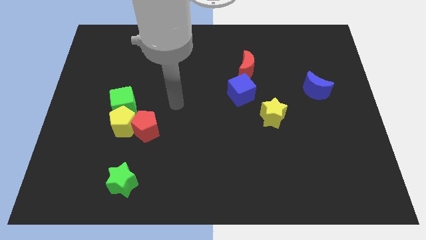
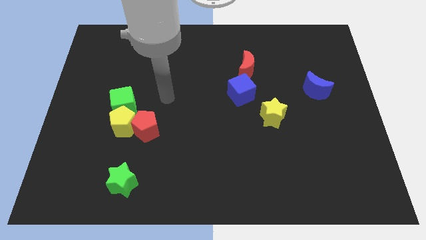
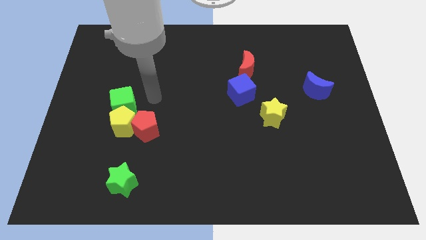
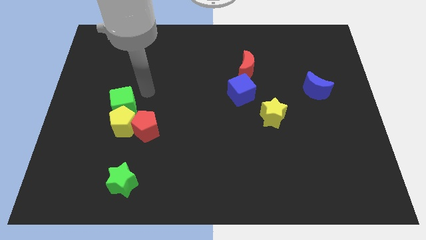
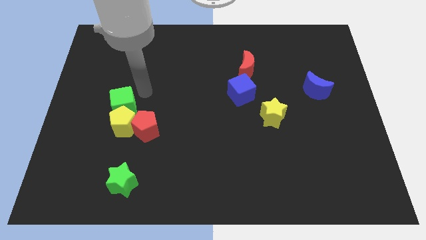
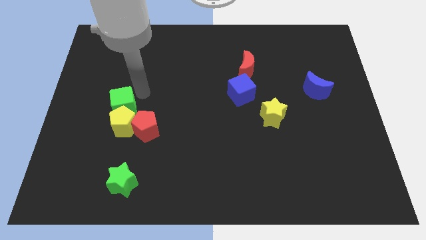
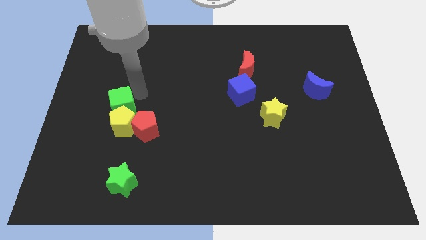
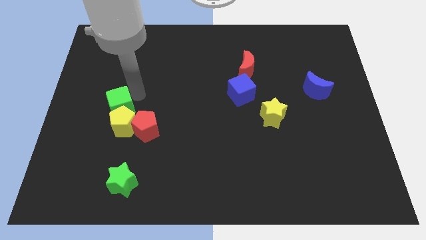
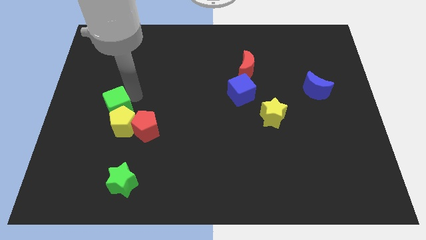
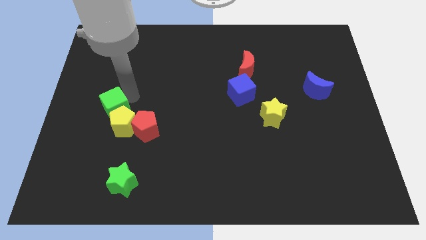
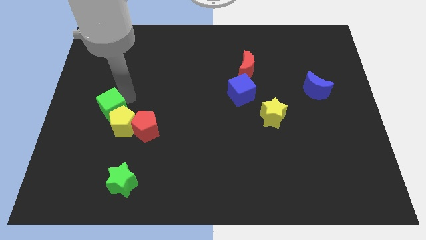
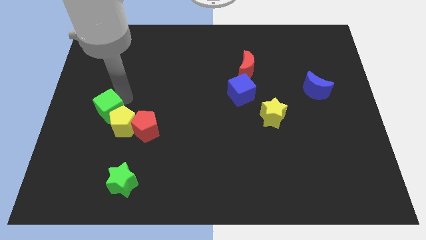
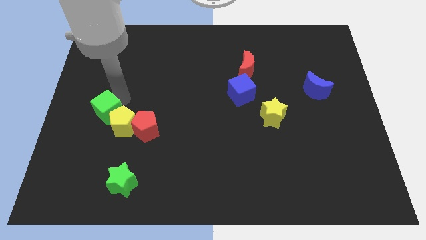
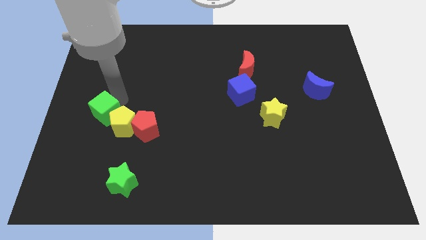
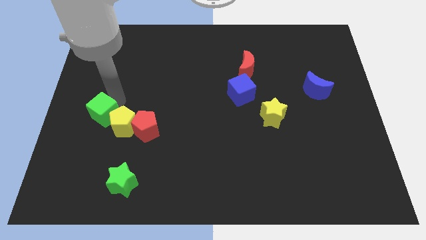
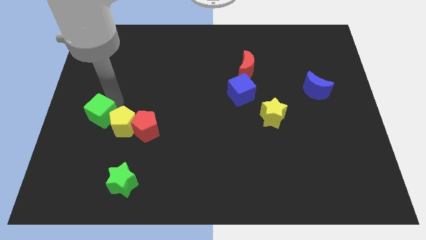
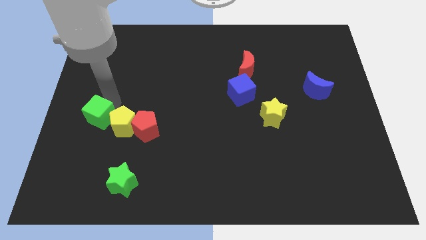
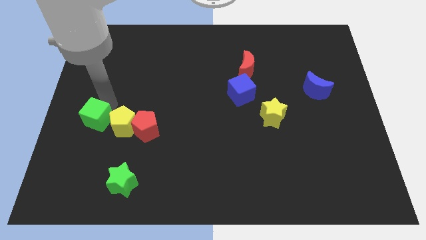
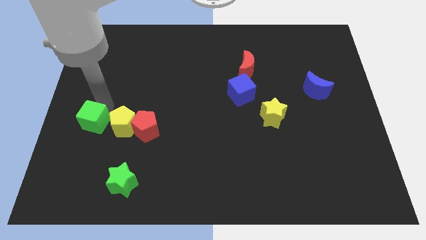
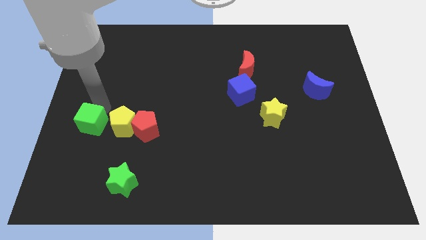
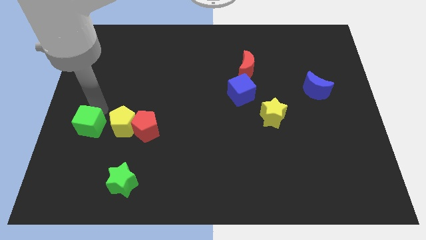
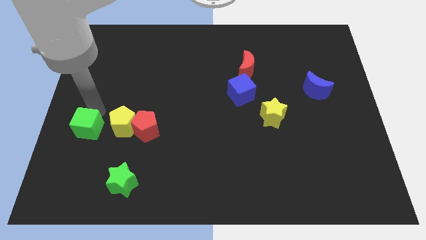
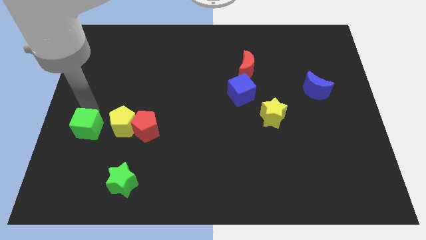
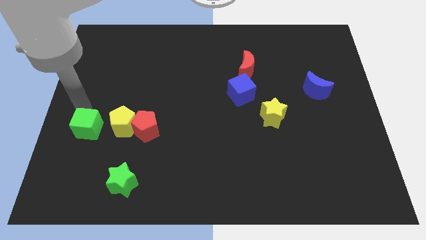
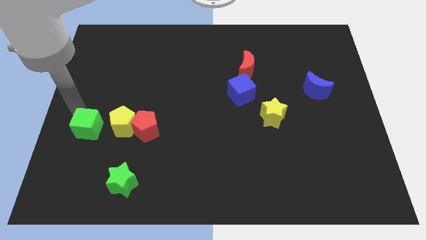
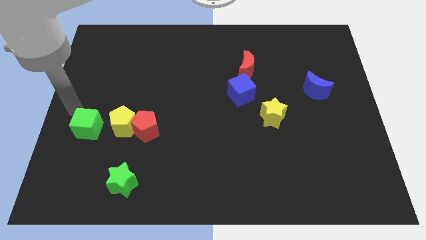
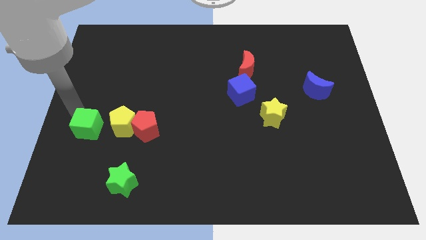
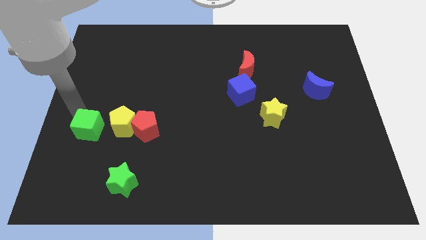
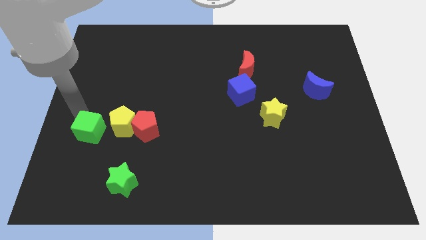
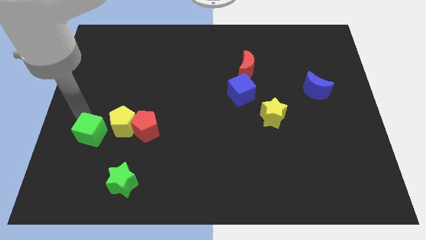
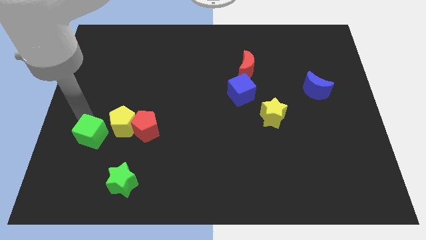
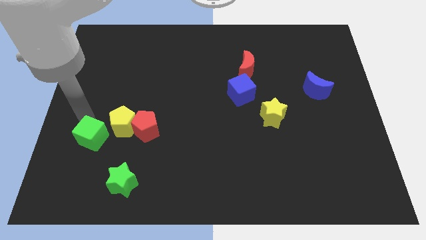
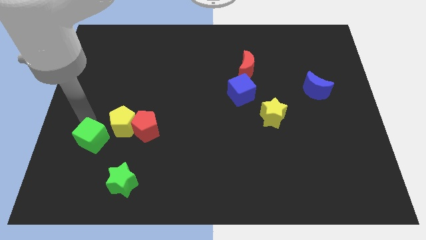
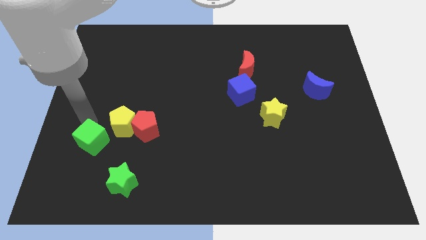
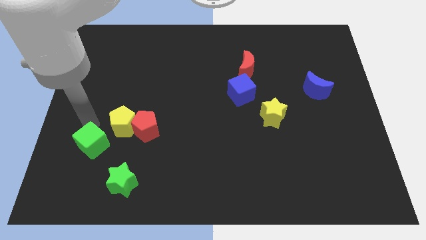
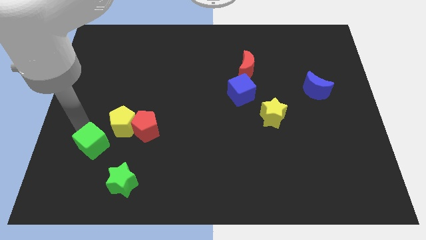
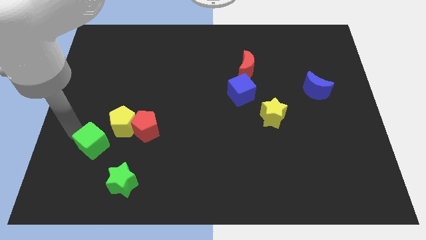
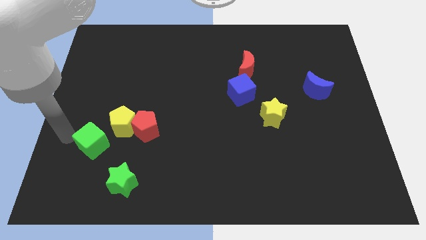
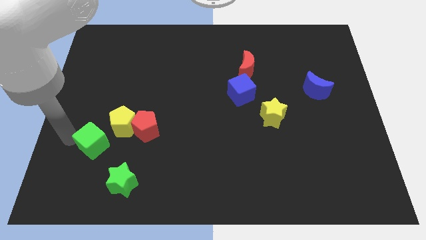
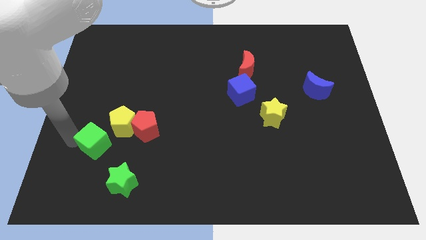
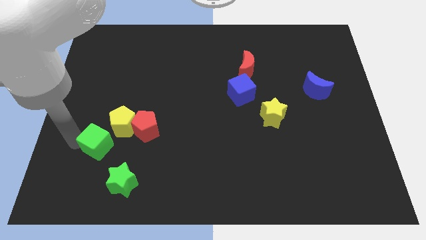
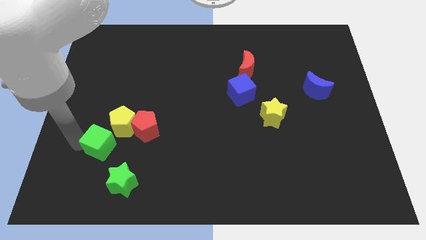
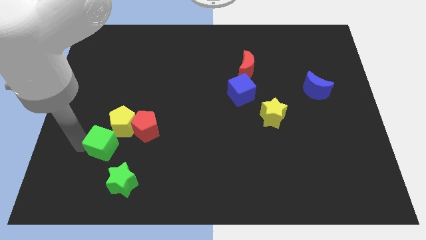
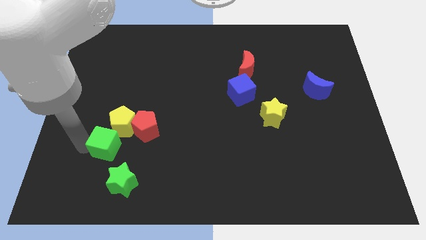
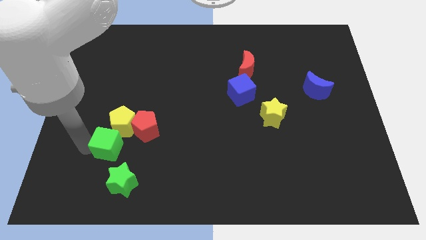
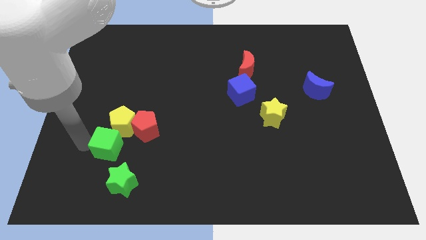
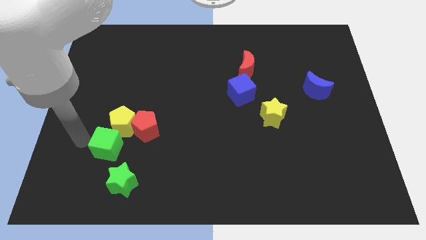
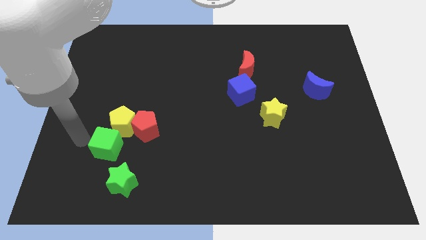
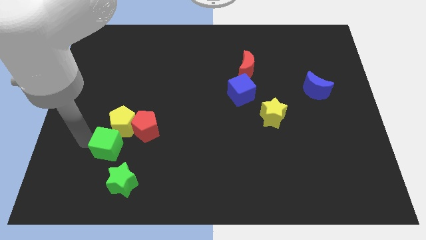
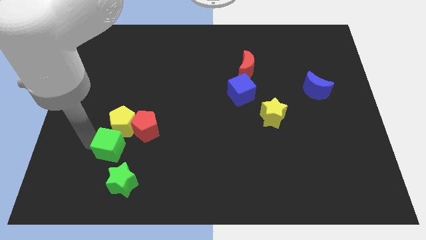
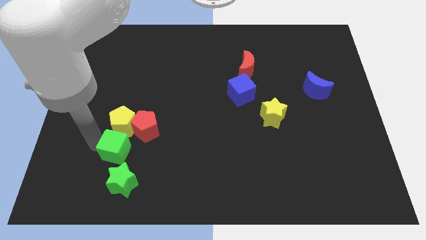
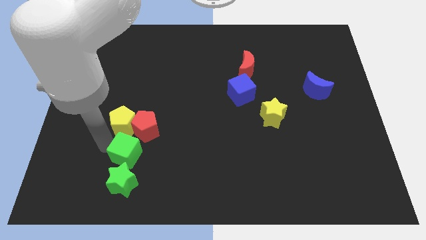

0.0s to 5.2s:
slide the green cube to the bottom of the red pentagon

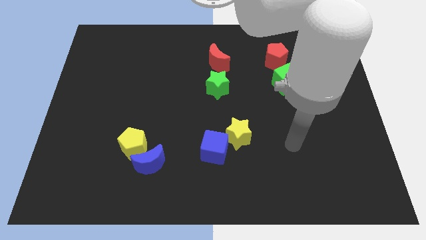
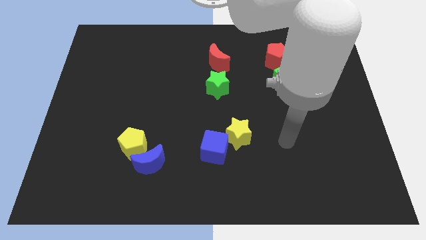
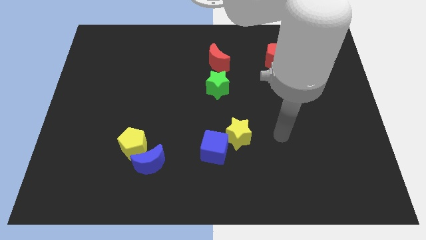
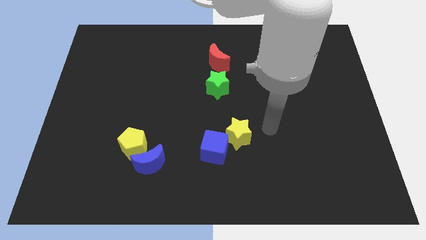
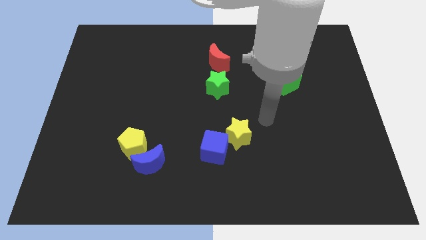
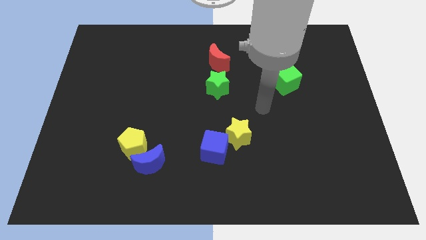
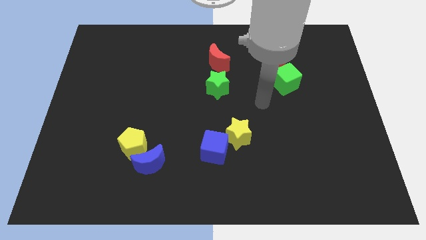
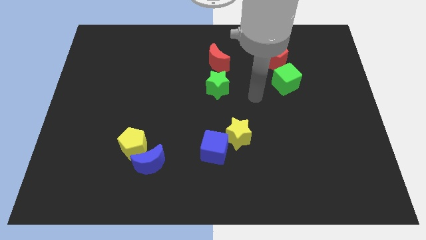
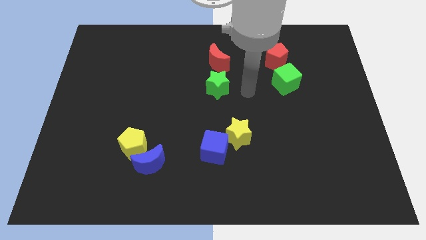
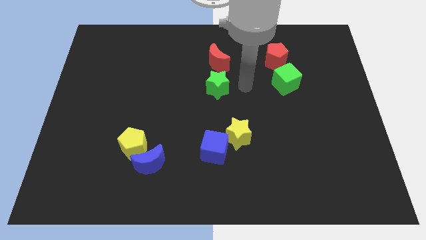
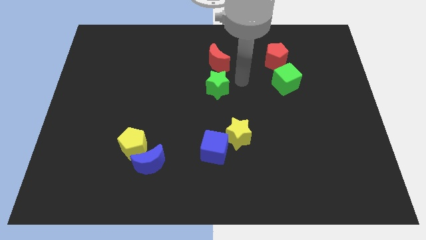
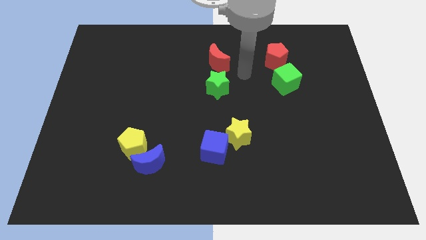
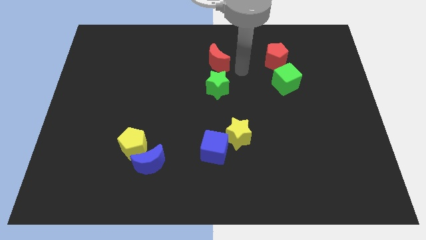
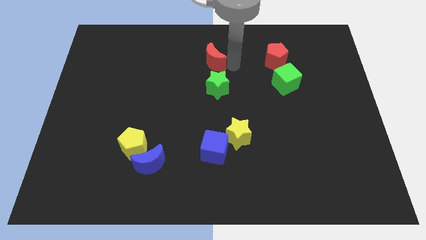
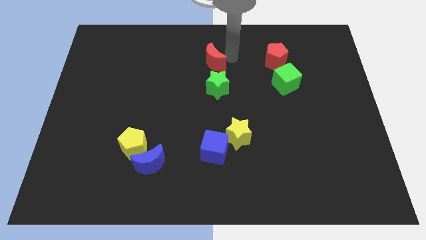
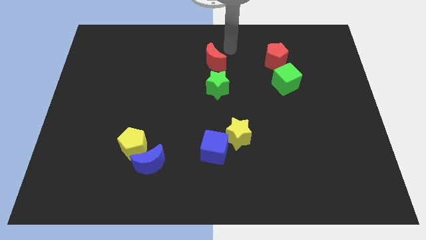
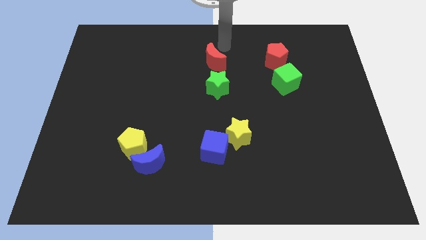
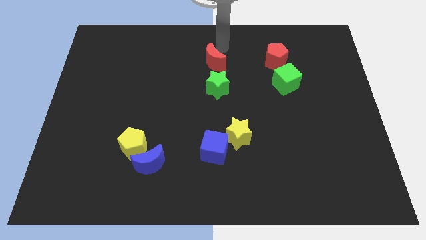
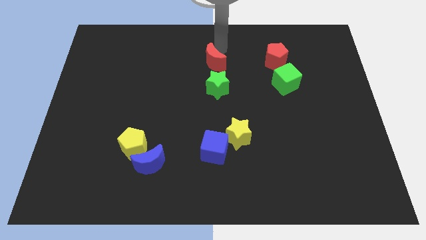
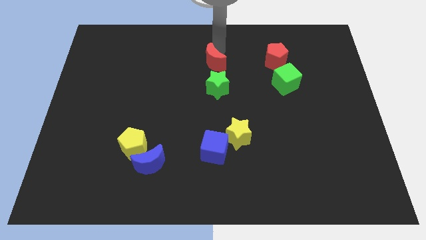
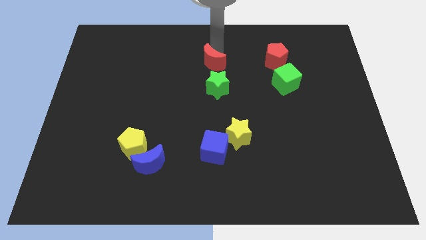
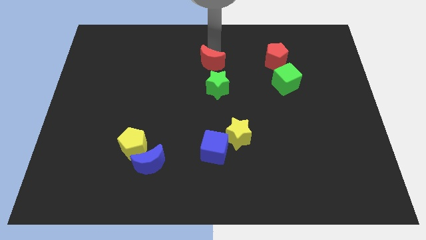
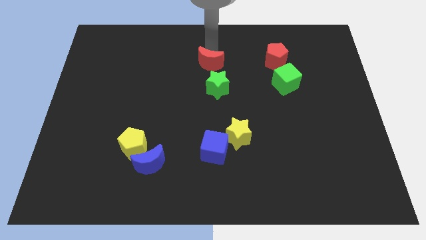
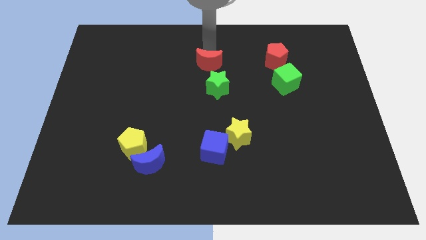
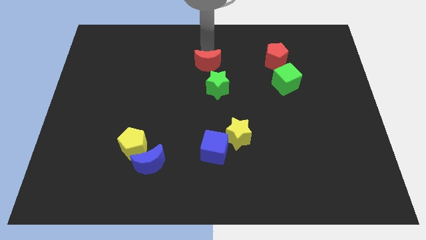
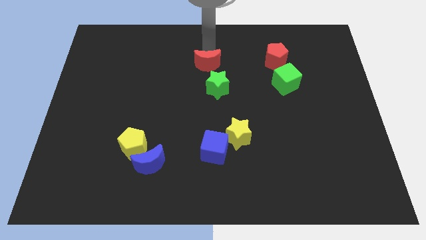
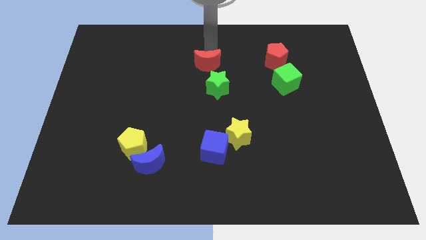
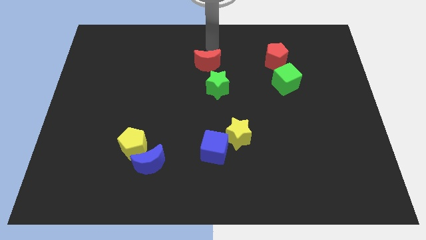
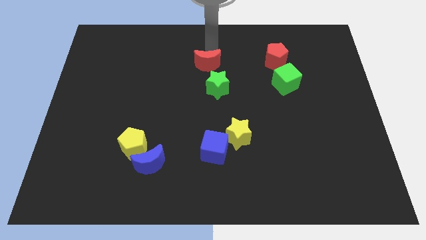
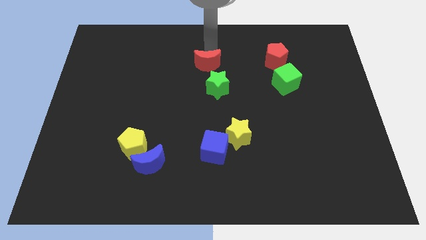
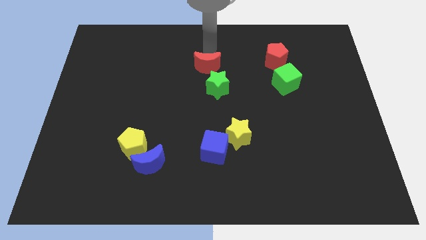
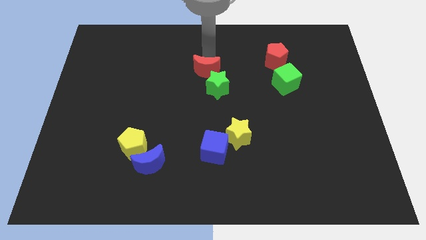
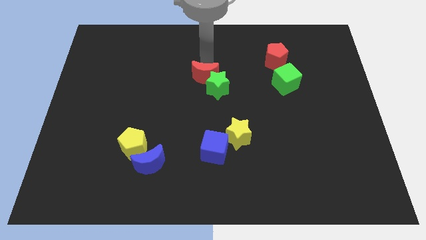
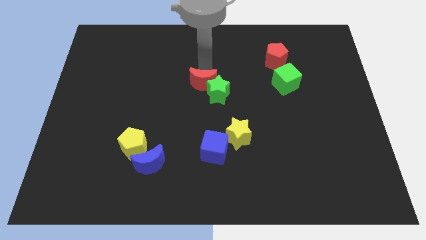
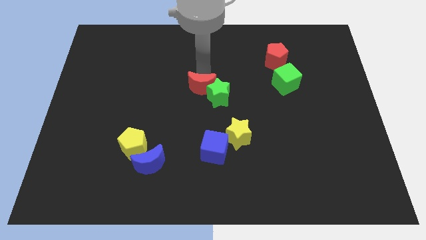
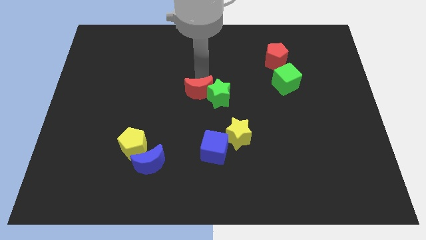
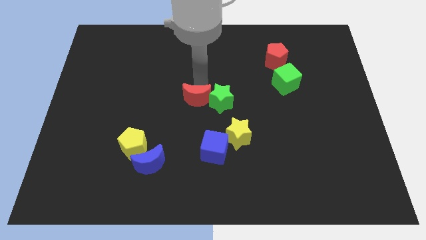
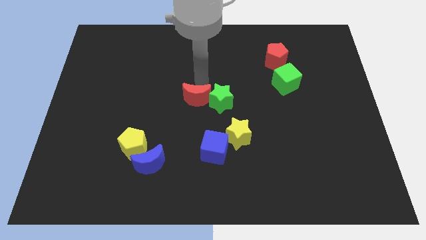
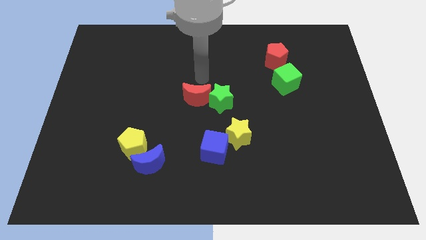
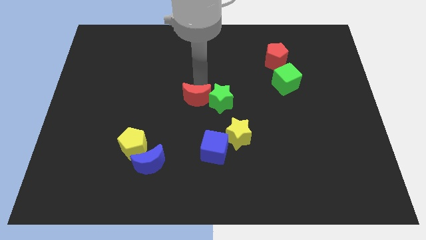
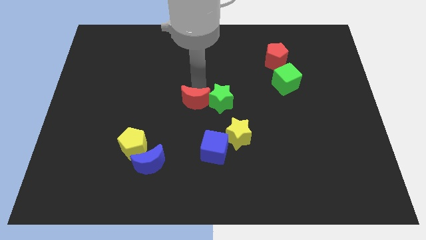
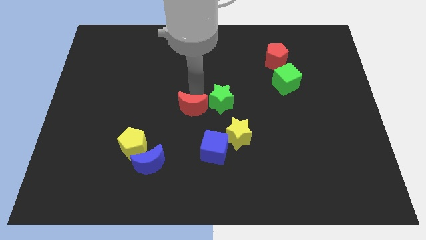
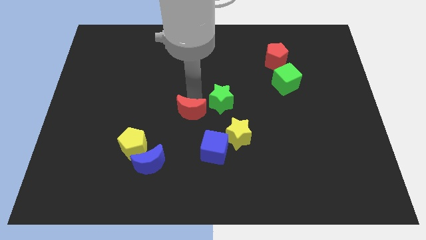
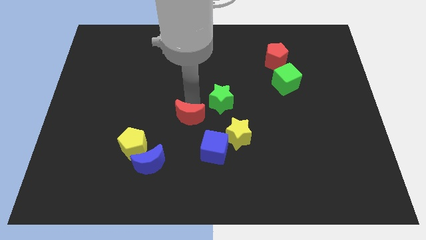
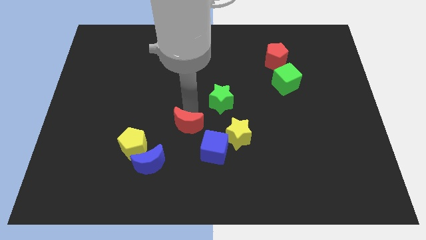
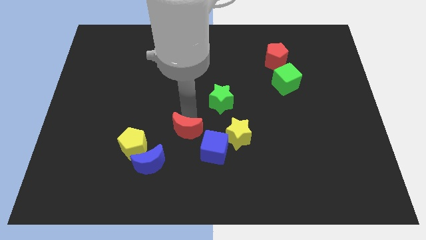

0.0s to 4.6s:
move the red moon to the right of the yellow pentagon
